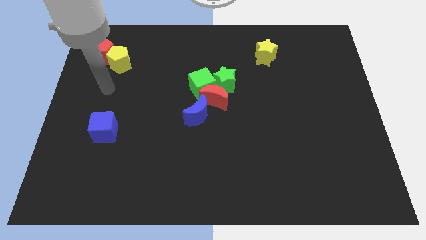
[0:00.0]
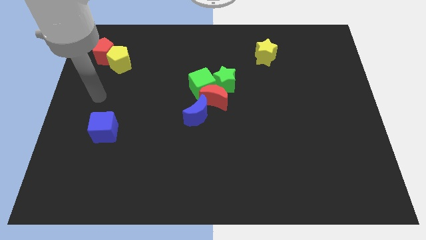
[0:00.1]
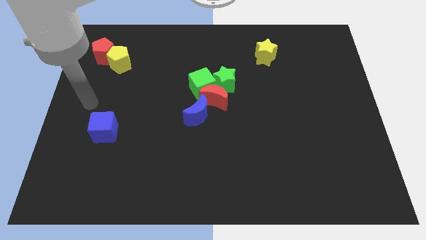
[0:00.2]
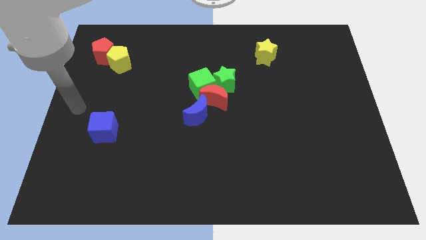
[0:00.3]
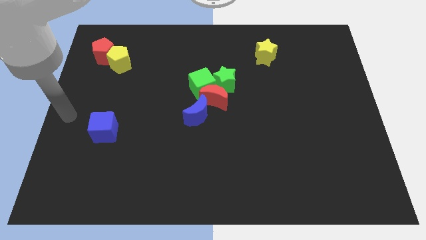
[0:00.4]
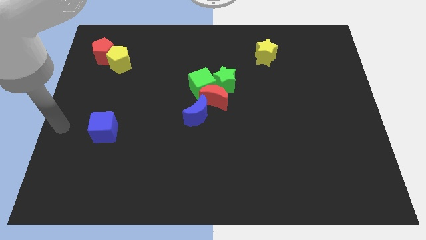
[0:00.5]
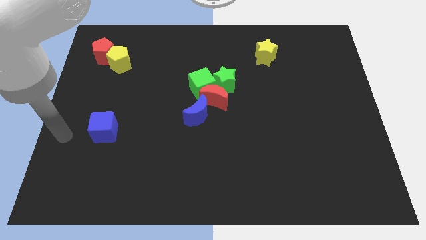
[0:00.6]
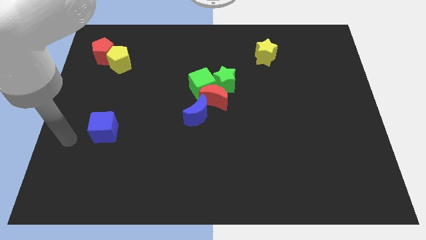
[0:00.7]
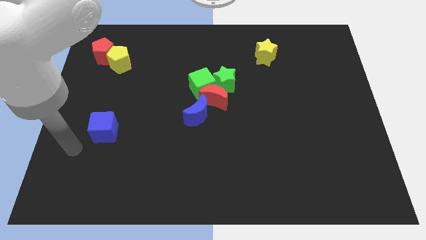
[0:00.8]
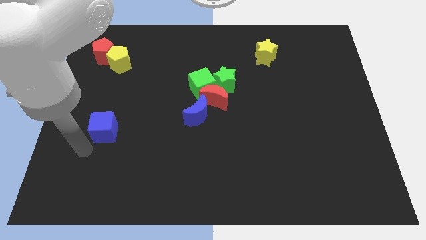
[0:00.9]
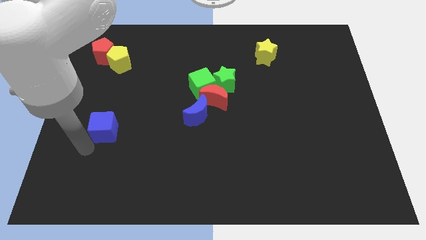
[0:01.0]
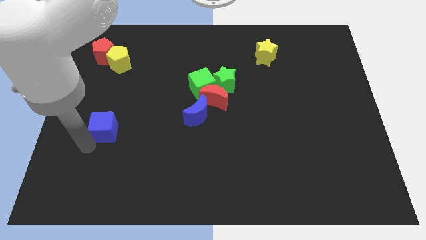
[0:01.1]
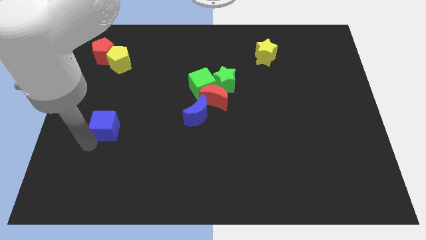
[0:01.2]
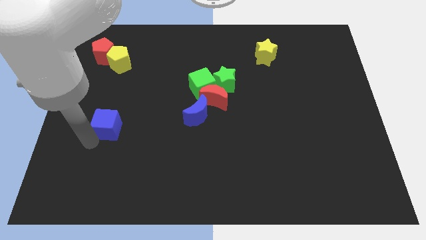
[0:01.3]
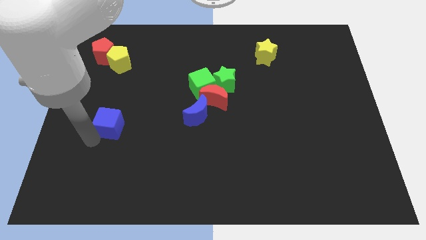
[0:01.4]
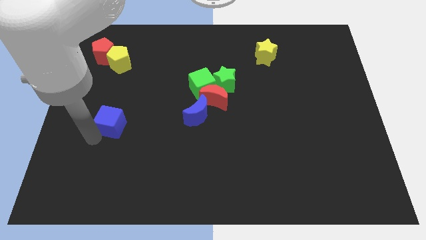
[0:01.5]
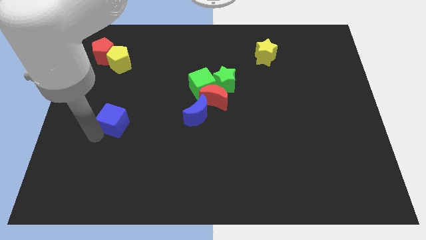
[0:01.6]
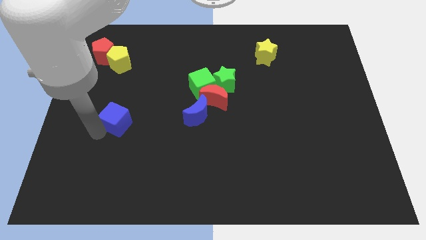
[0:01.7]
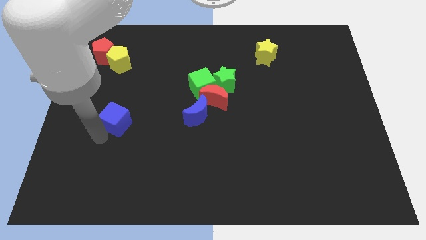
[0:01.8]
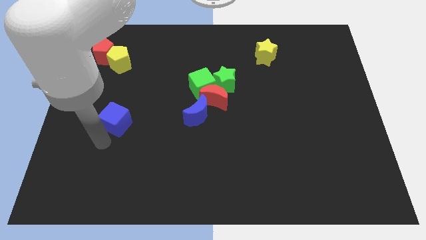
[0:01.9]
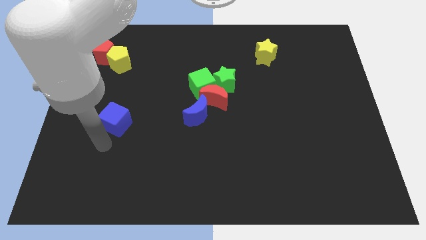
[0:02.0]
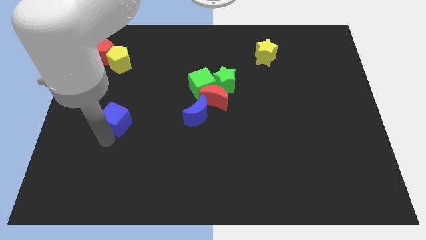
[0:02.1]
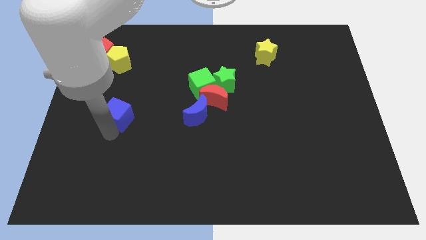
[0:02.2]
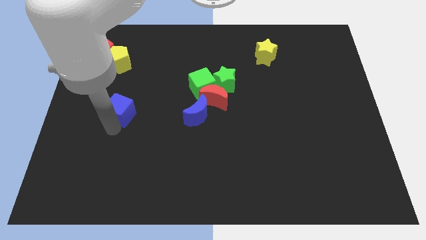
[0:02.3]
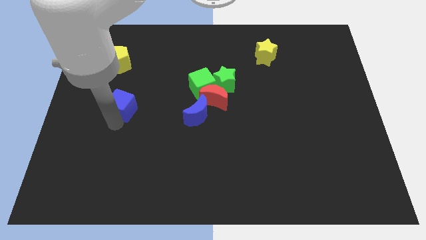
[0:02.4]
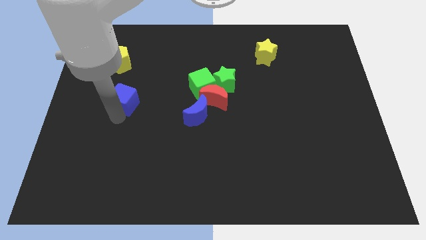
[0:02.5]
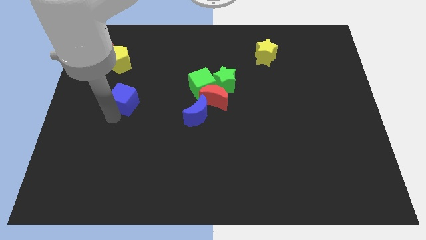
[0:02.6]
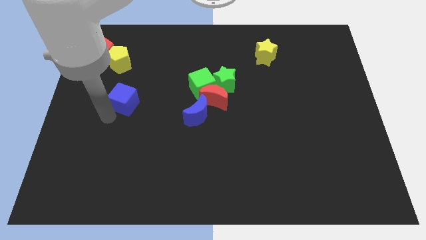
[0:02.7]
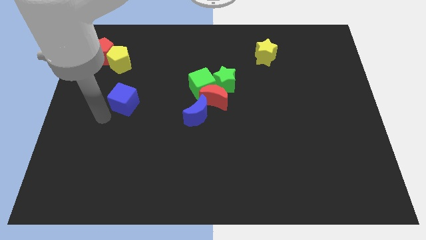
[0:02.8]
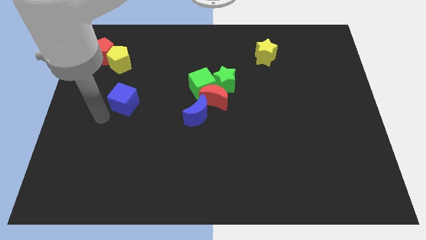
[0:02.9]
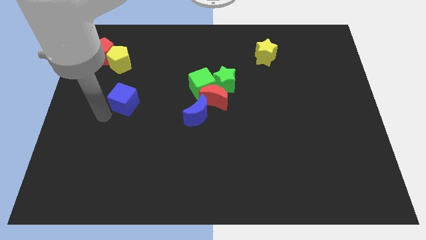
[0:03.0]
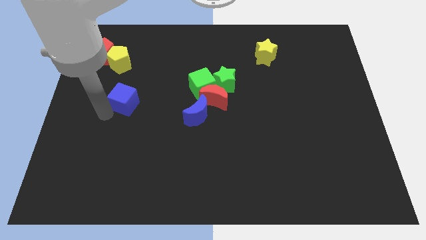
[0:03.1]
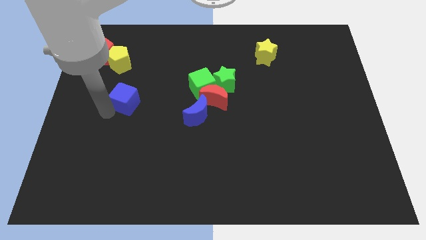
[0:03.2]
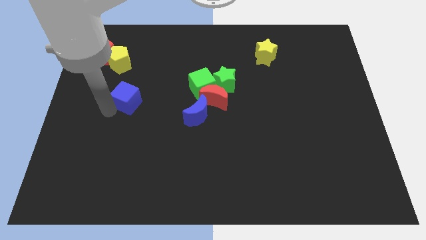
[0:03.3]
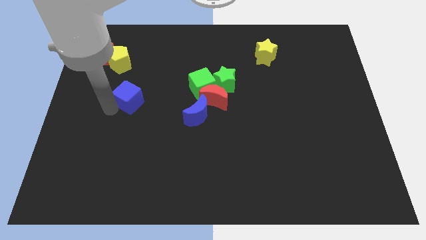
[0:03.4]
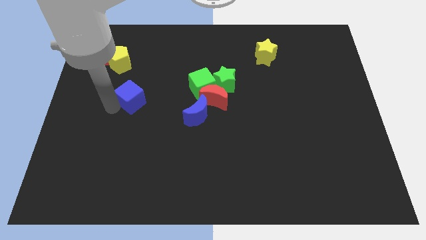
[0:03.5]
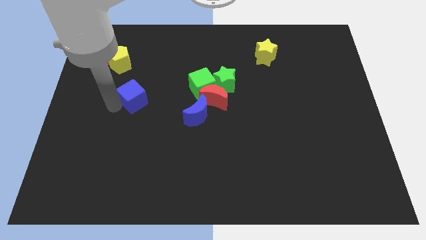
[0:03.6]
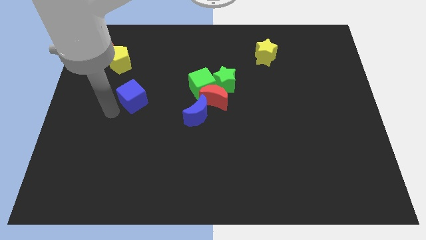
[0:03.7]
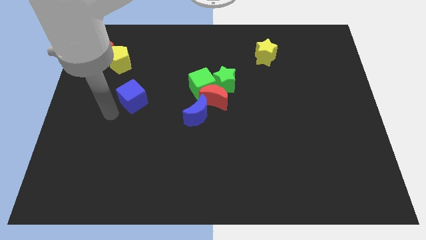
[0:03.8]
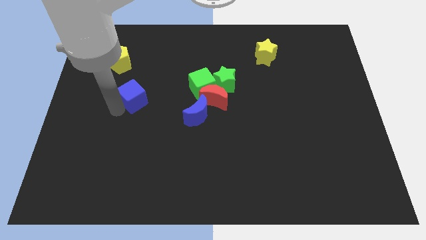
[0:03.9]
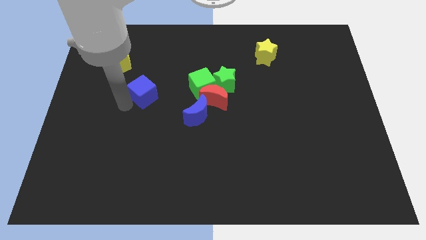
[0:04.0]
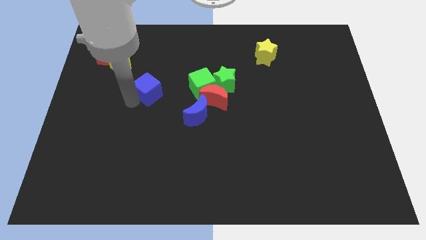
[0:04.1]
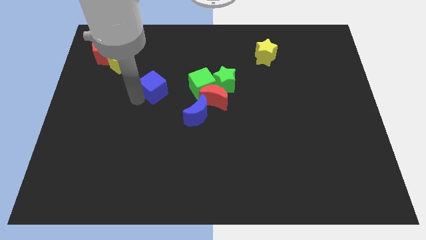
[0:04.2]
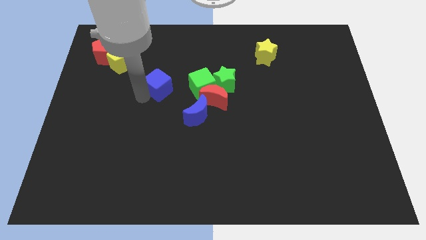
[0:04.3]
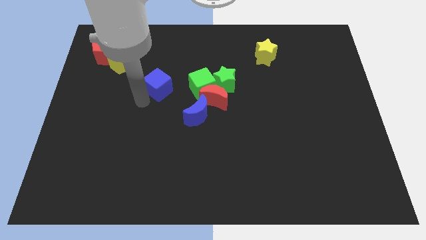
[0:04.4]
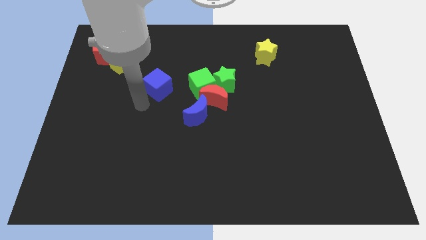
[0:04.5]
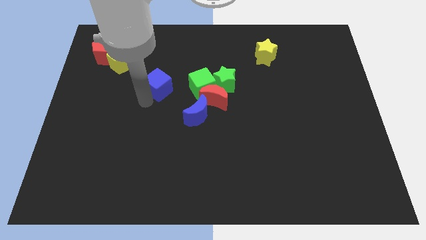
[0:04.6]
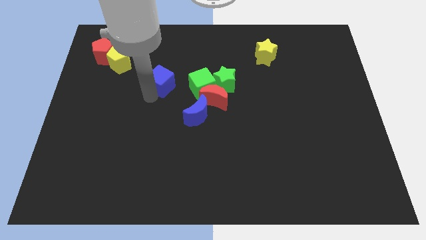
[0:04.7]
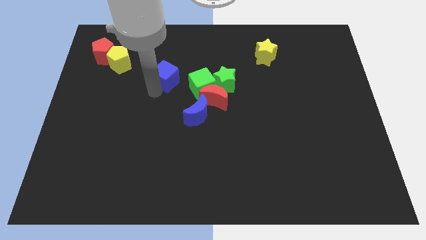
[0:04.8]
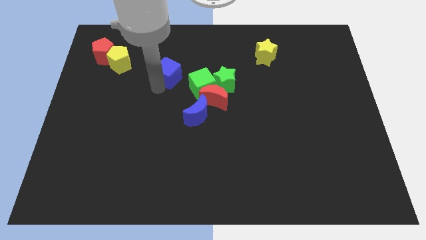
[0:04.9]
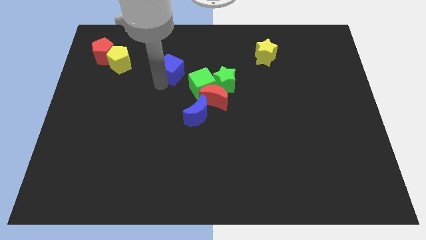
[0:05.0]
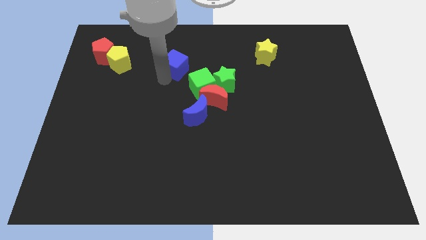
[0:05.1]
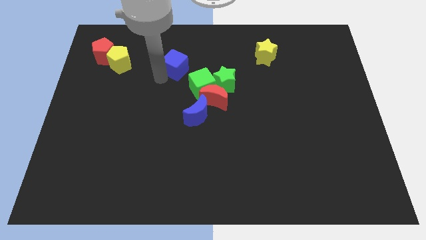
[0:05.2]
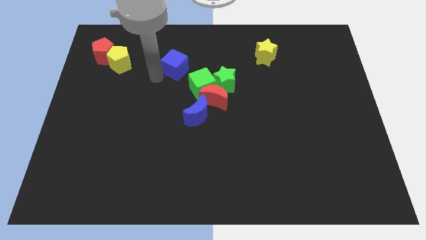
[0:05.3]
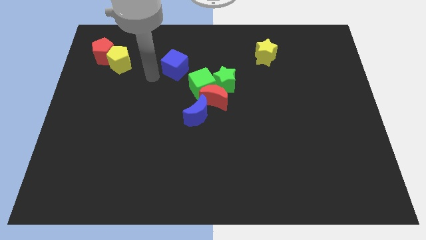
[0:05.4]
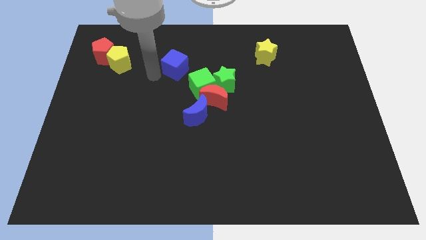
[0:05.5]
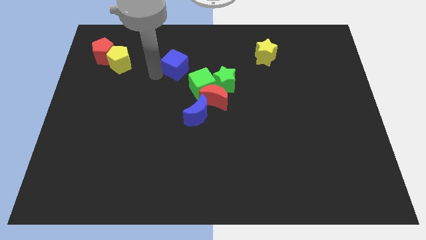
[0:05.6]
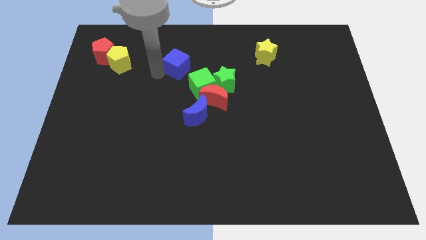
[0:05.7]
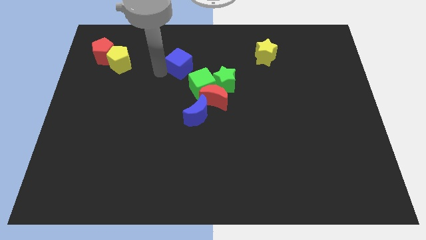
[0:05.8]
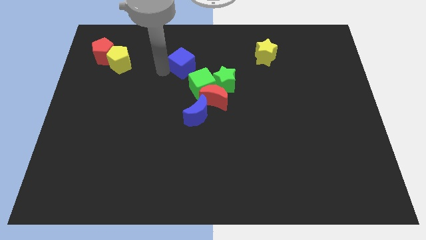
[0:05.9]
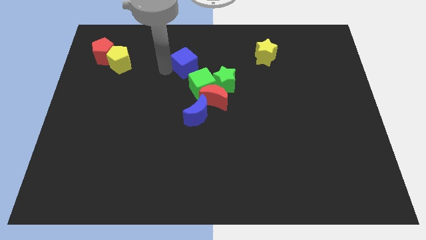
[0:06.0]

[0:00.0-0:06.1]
push the blue cube above the green cube
